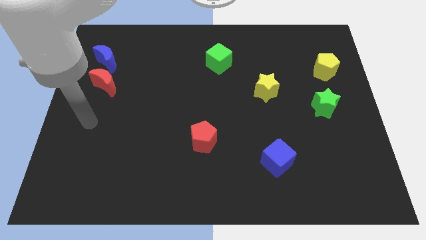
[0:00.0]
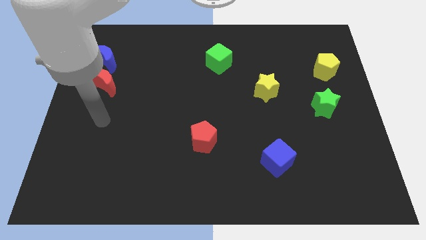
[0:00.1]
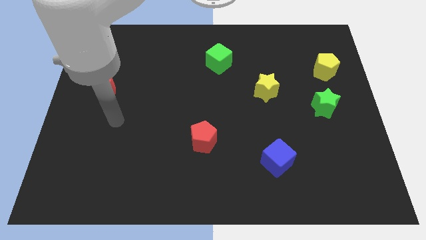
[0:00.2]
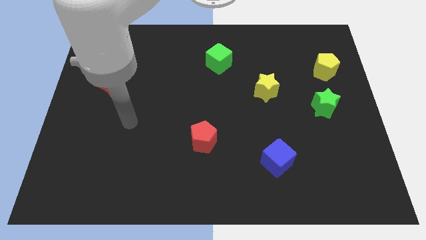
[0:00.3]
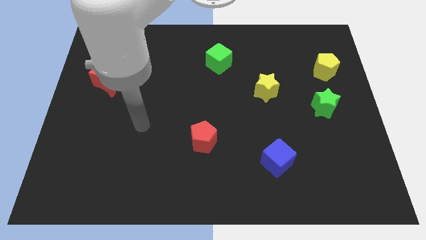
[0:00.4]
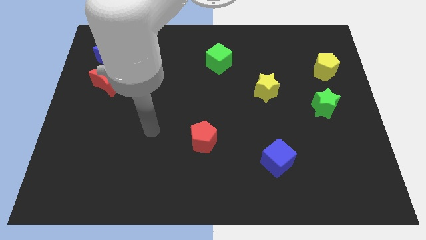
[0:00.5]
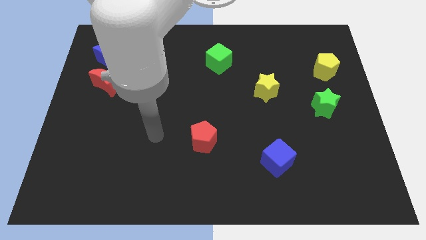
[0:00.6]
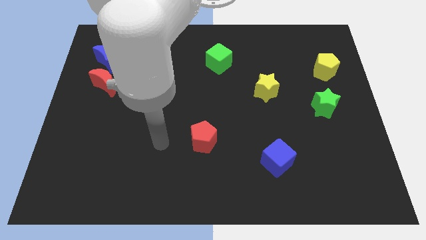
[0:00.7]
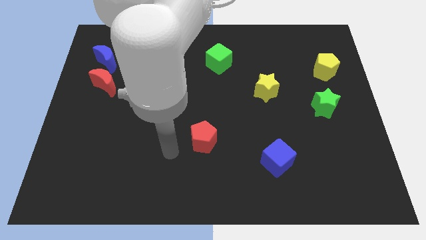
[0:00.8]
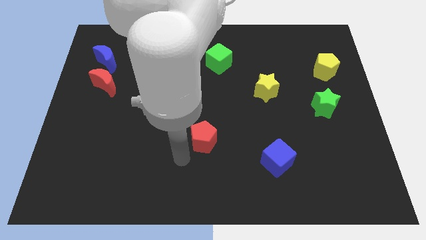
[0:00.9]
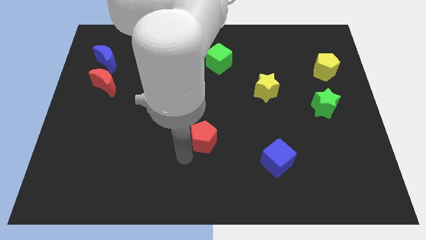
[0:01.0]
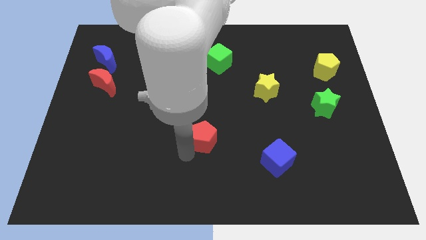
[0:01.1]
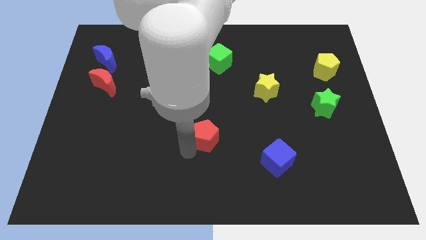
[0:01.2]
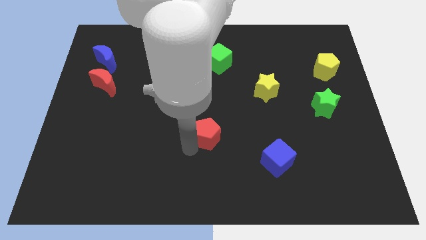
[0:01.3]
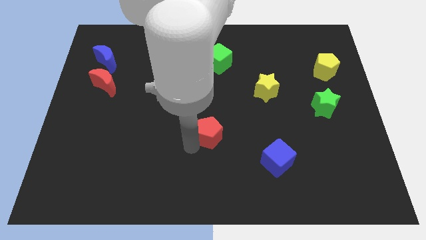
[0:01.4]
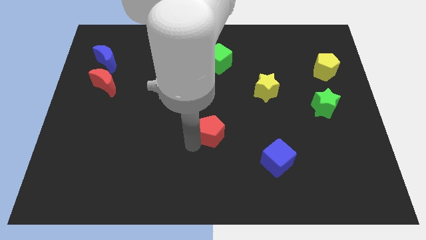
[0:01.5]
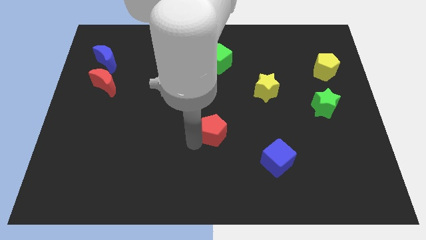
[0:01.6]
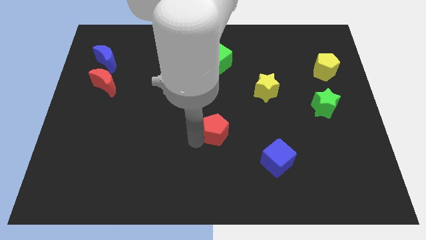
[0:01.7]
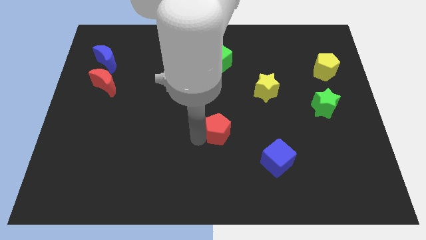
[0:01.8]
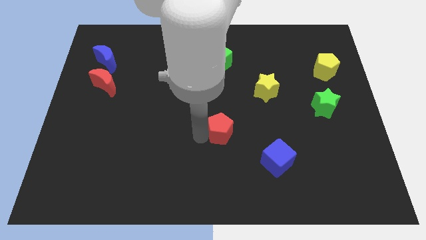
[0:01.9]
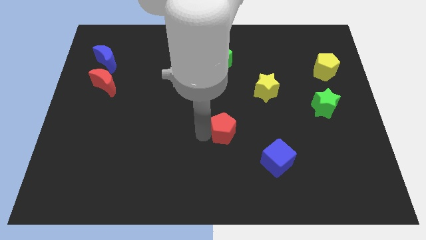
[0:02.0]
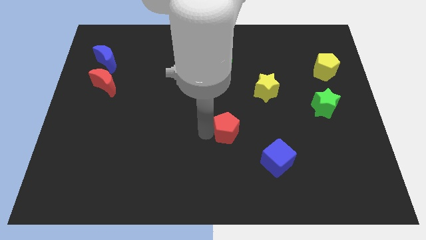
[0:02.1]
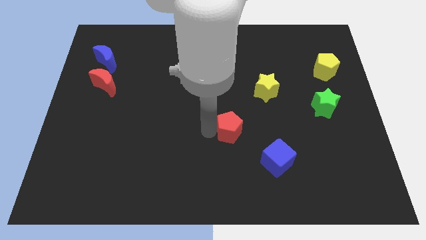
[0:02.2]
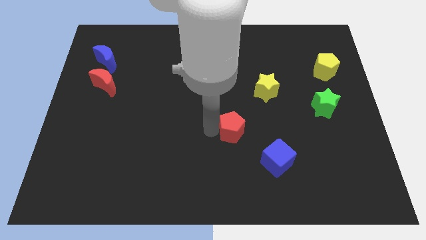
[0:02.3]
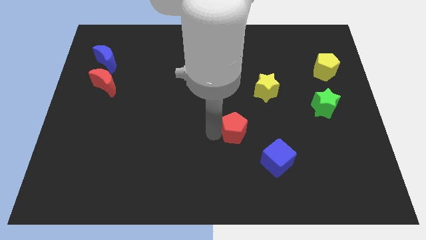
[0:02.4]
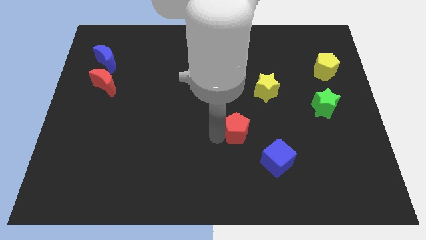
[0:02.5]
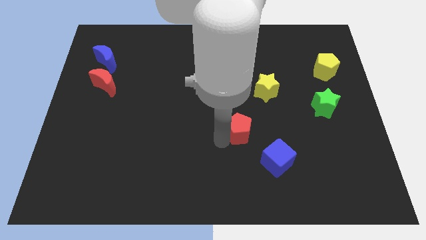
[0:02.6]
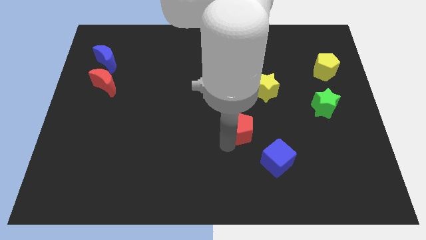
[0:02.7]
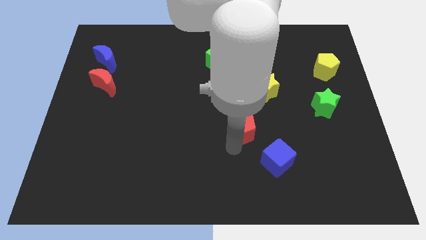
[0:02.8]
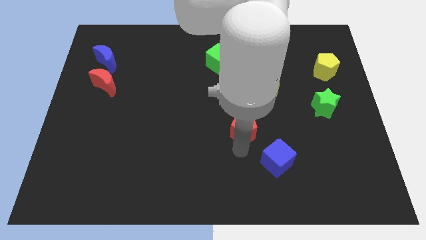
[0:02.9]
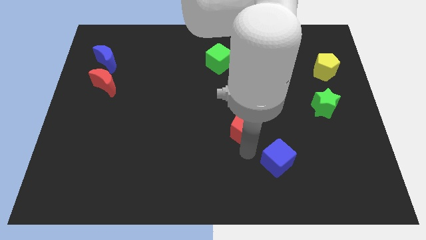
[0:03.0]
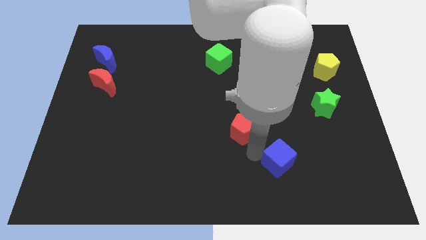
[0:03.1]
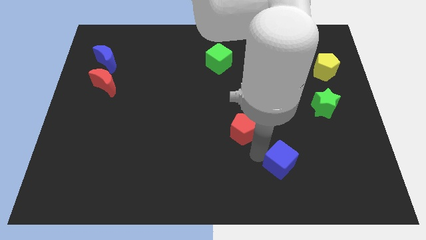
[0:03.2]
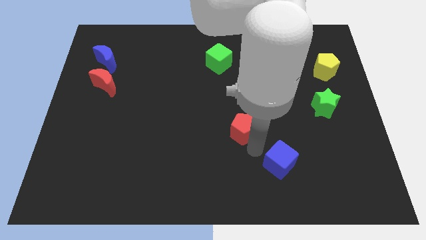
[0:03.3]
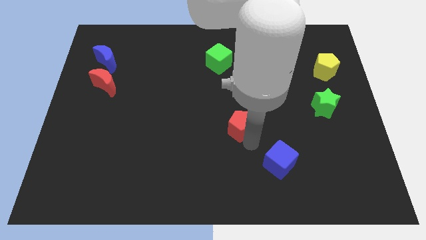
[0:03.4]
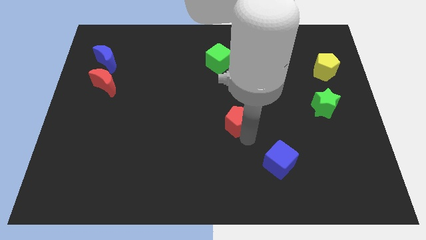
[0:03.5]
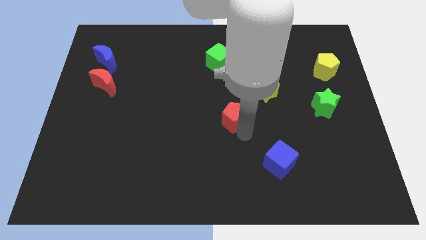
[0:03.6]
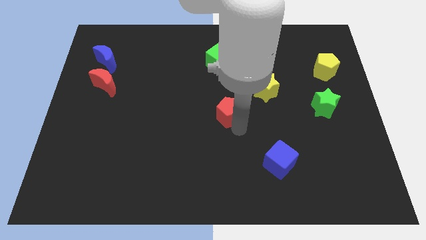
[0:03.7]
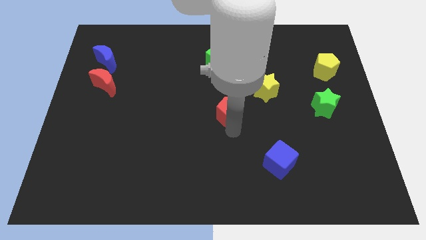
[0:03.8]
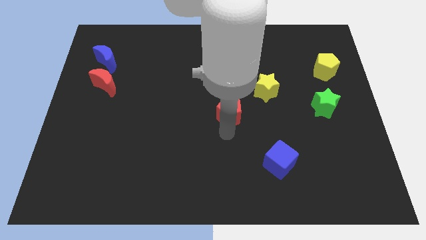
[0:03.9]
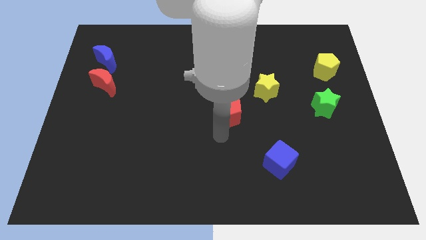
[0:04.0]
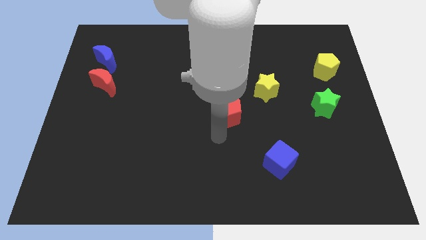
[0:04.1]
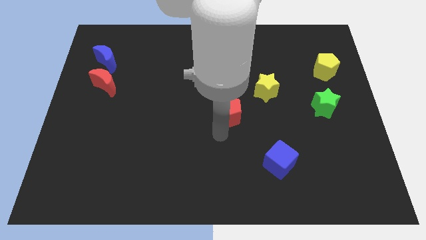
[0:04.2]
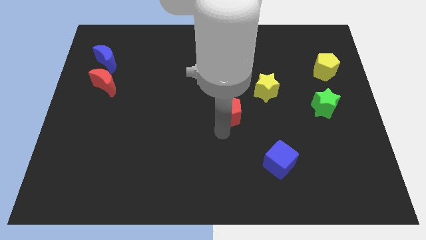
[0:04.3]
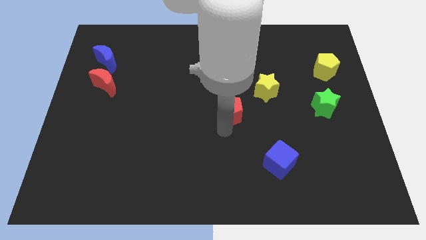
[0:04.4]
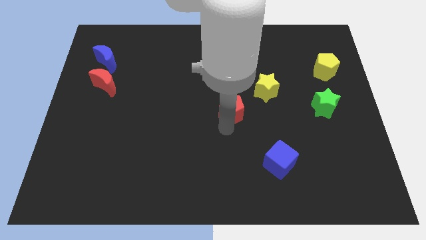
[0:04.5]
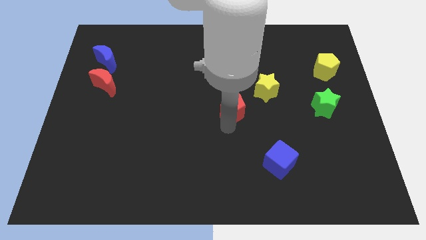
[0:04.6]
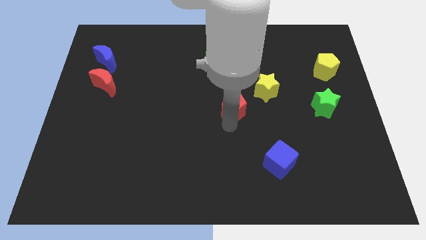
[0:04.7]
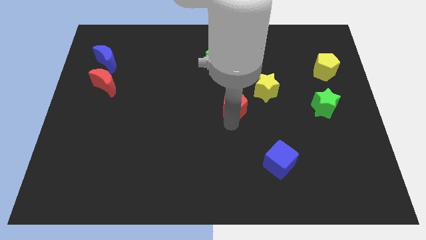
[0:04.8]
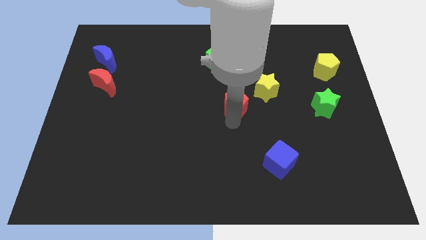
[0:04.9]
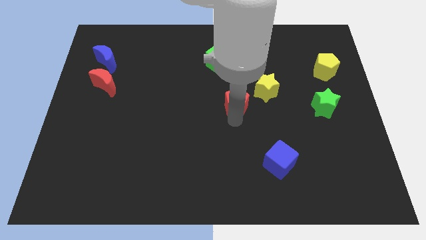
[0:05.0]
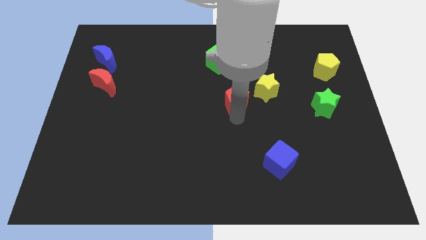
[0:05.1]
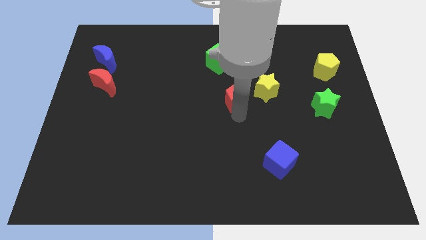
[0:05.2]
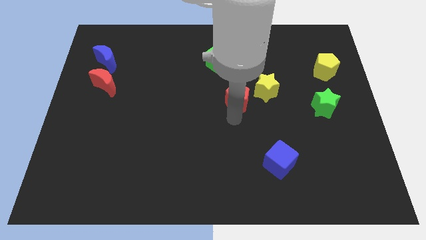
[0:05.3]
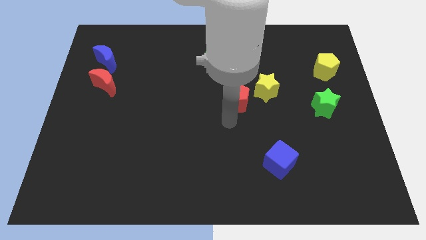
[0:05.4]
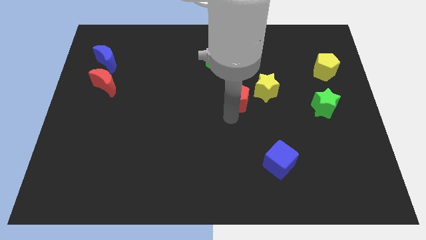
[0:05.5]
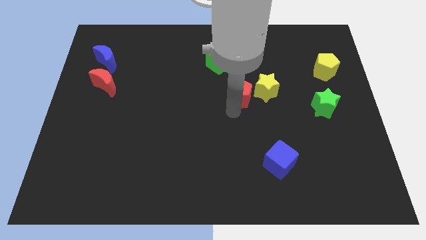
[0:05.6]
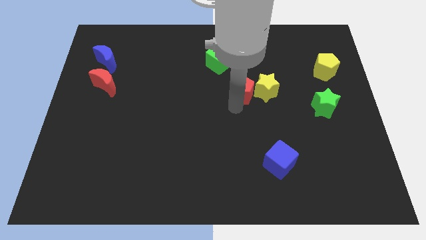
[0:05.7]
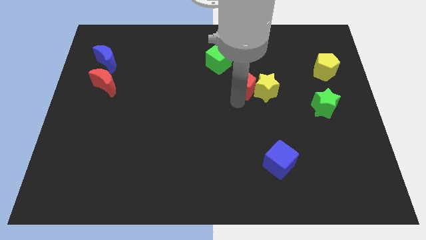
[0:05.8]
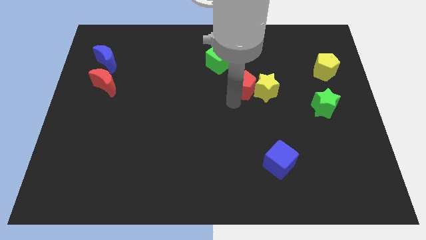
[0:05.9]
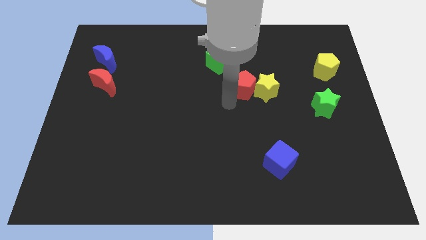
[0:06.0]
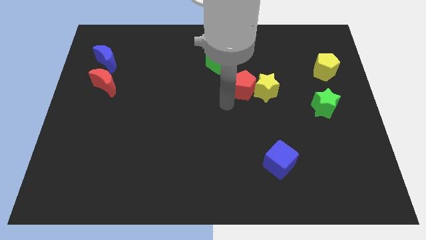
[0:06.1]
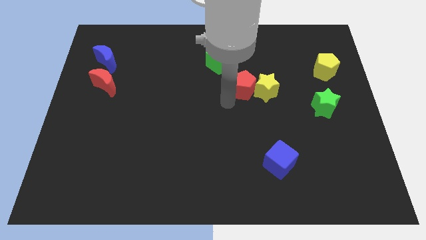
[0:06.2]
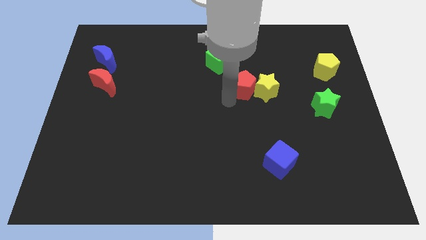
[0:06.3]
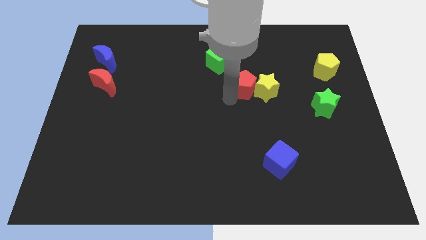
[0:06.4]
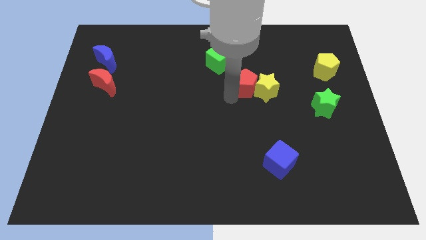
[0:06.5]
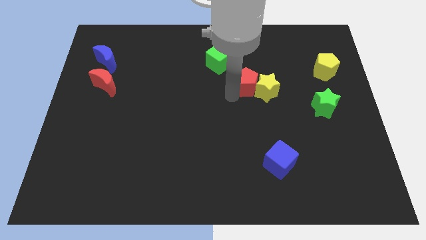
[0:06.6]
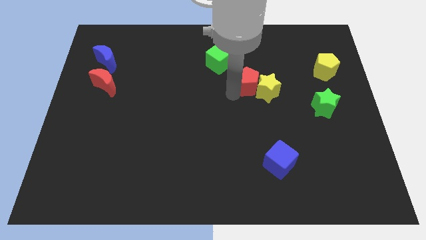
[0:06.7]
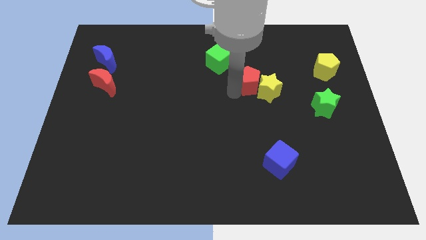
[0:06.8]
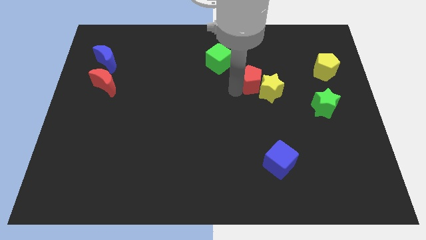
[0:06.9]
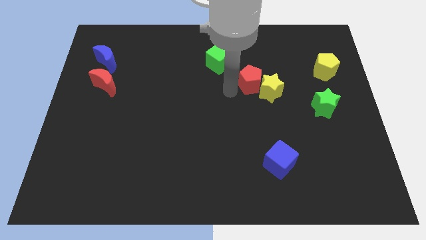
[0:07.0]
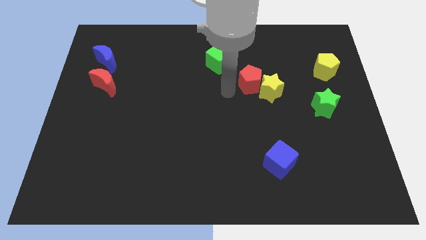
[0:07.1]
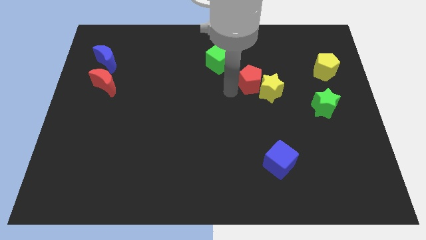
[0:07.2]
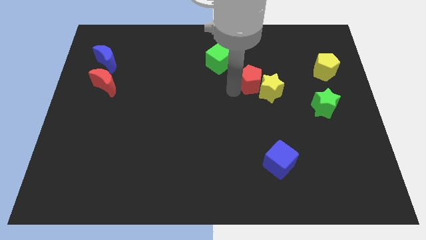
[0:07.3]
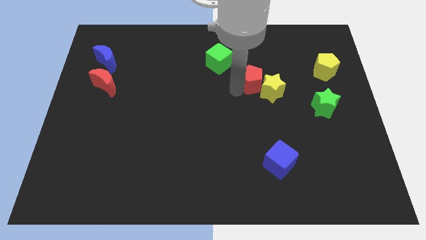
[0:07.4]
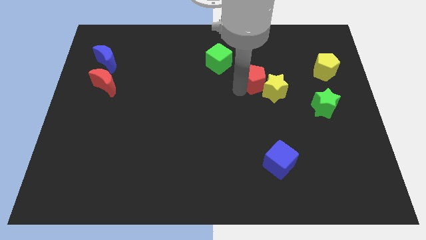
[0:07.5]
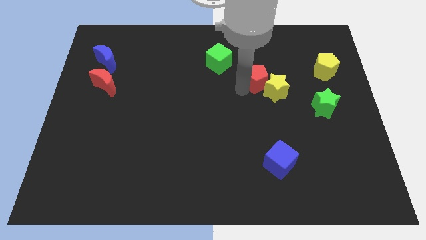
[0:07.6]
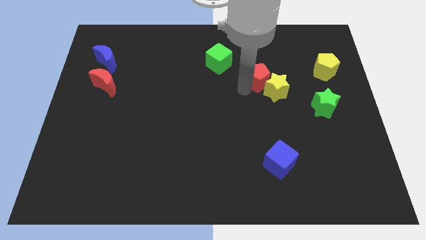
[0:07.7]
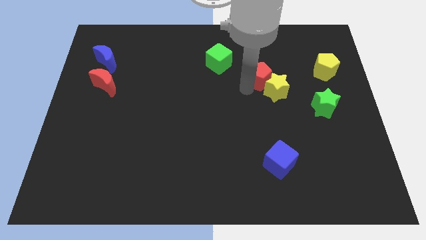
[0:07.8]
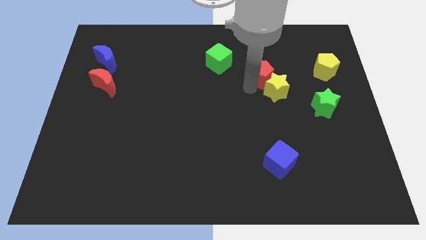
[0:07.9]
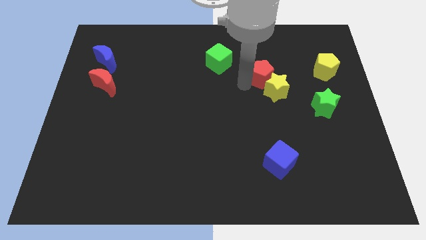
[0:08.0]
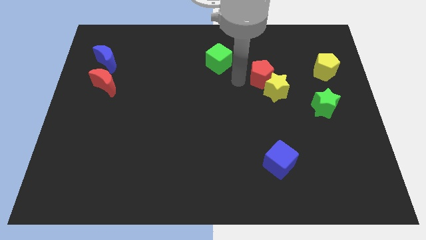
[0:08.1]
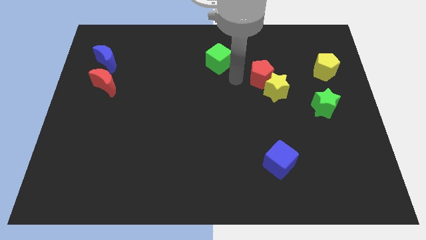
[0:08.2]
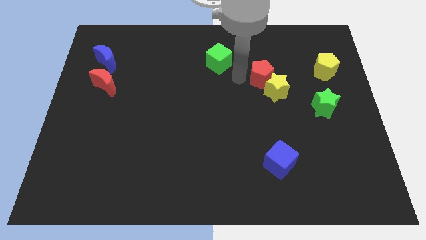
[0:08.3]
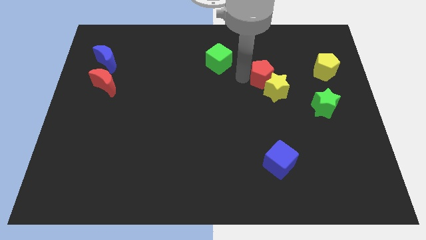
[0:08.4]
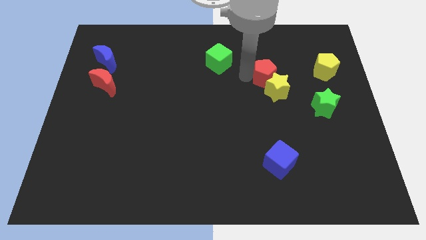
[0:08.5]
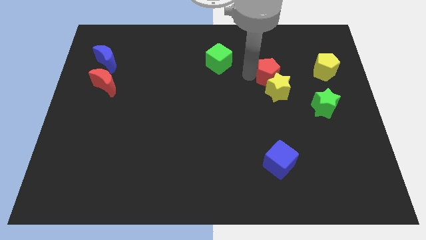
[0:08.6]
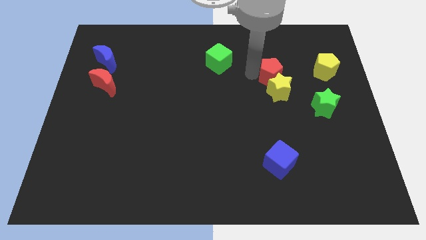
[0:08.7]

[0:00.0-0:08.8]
put the red pentagon diagonally up and to the right of the yellow star
